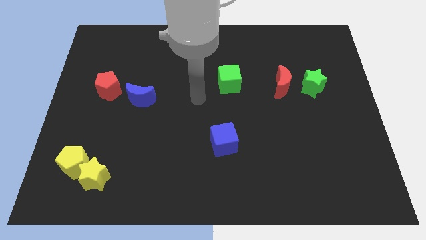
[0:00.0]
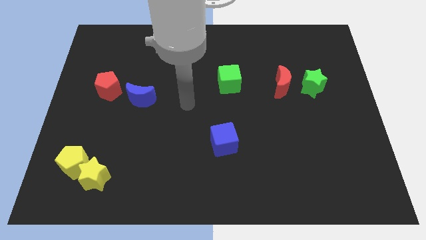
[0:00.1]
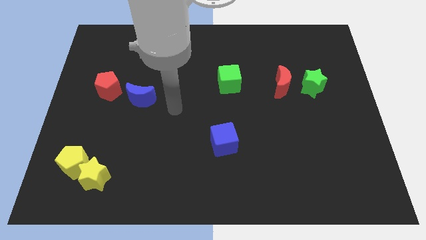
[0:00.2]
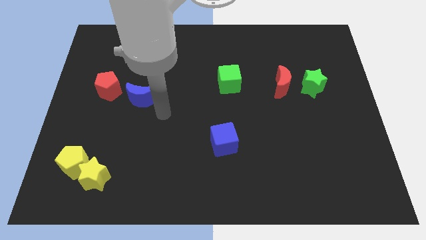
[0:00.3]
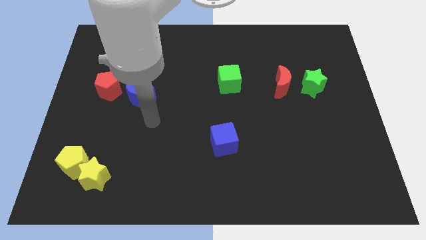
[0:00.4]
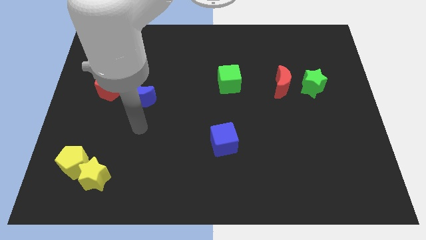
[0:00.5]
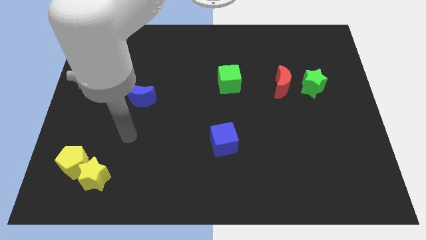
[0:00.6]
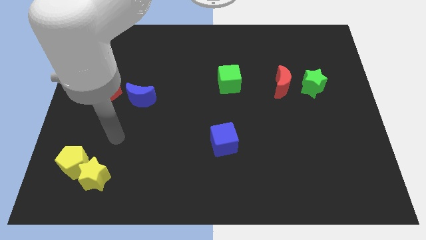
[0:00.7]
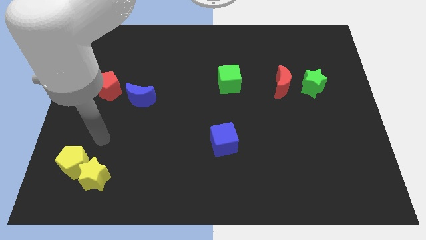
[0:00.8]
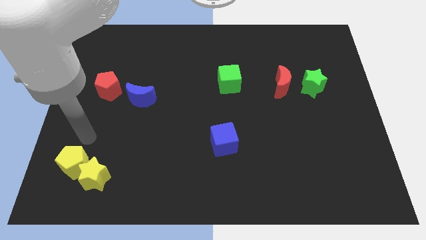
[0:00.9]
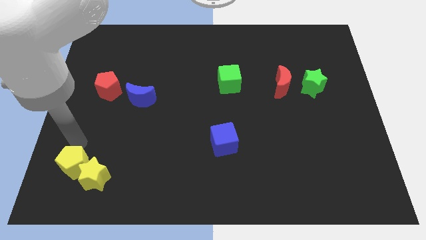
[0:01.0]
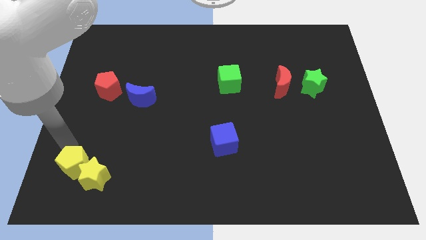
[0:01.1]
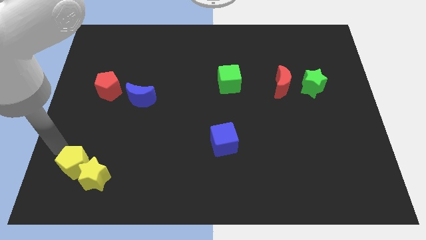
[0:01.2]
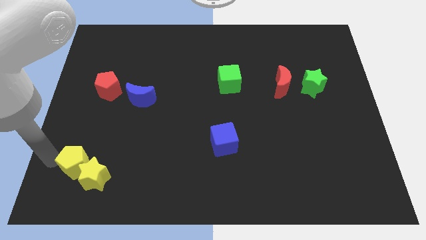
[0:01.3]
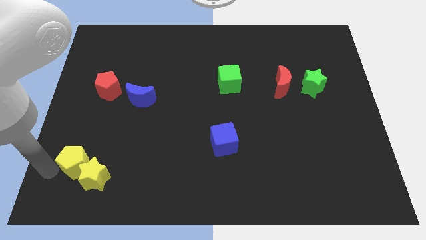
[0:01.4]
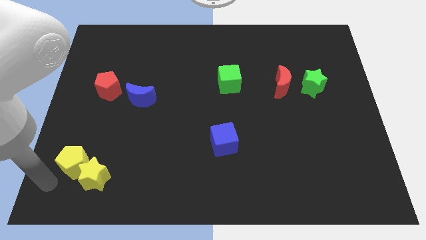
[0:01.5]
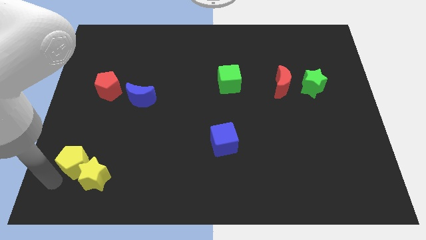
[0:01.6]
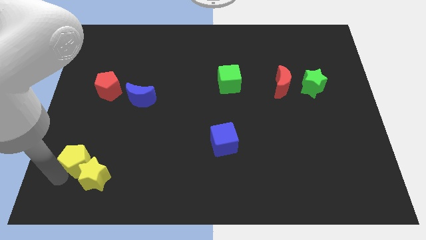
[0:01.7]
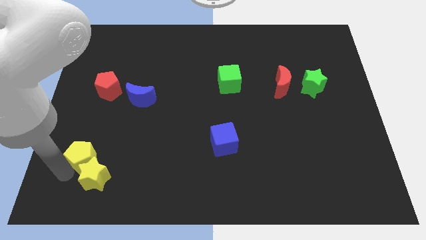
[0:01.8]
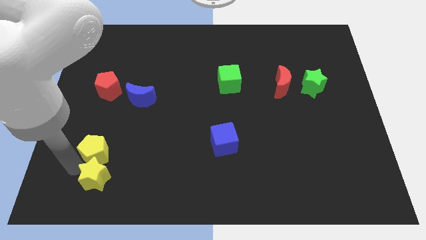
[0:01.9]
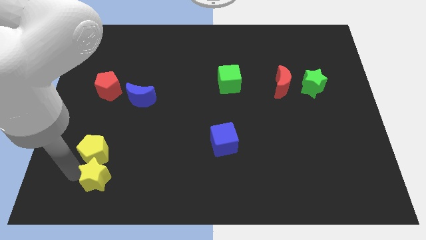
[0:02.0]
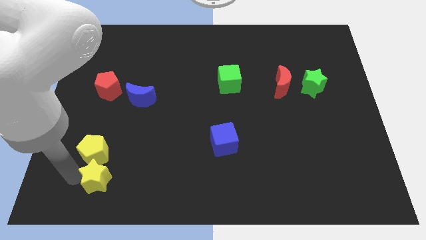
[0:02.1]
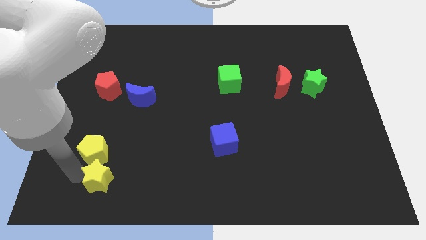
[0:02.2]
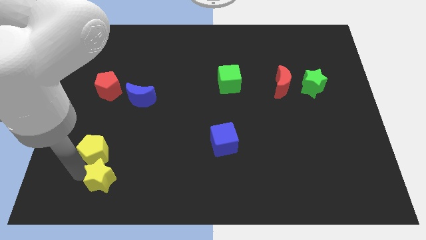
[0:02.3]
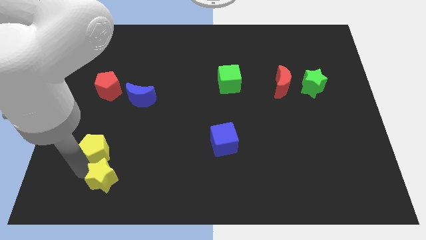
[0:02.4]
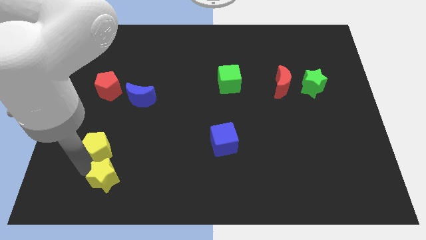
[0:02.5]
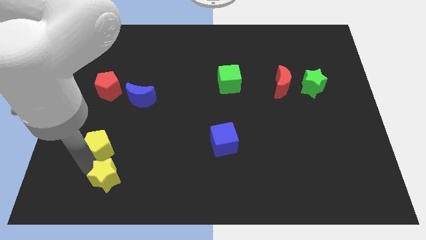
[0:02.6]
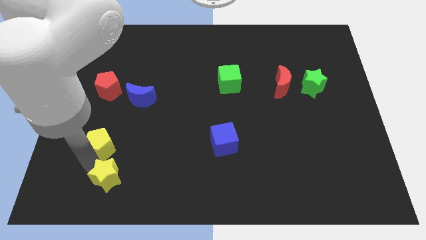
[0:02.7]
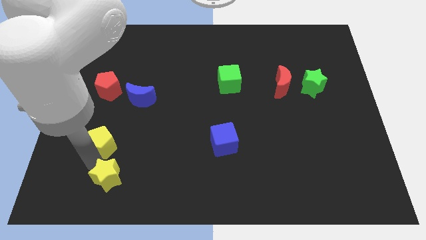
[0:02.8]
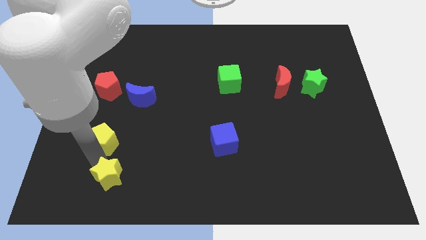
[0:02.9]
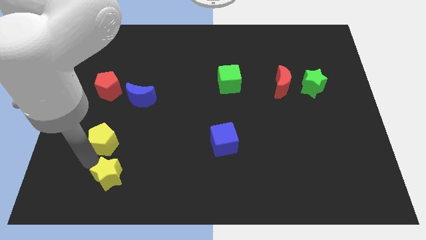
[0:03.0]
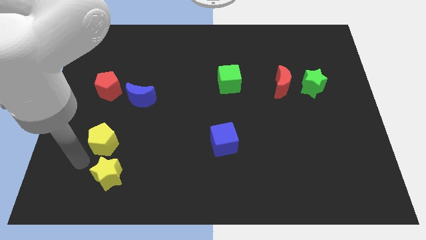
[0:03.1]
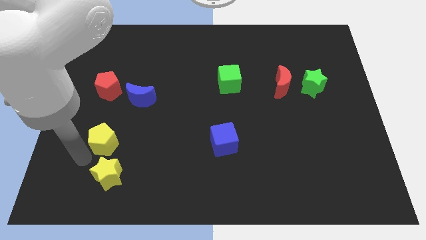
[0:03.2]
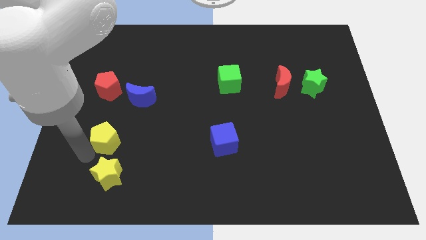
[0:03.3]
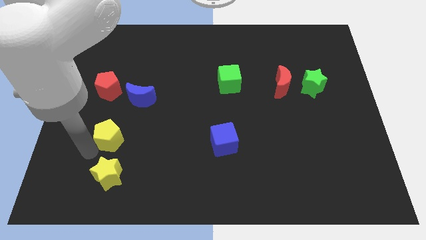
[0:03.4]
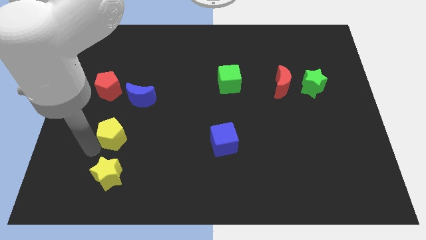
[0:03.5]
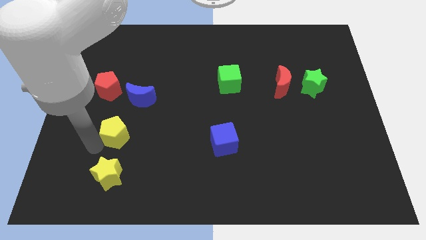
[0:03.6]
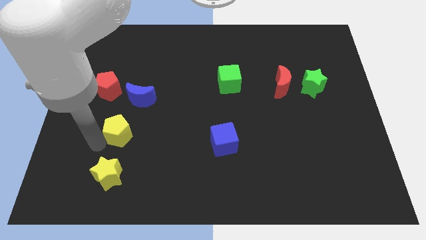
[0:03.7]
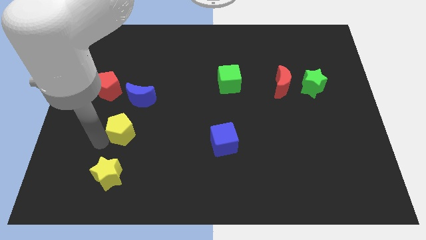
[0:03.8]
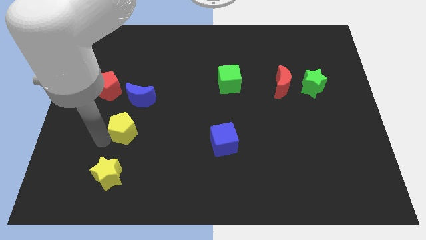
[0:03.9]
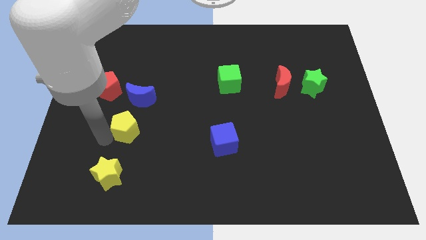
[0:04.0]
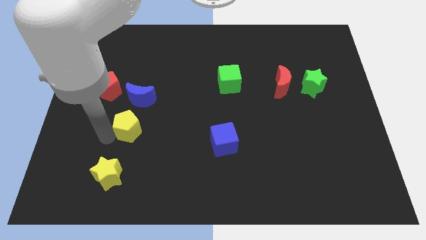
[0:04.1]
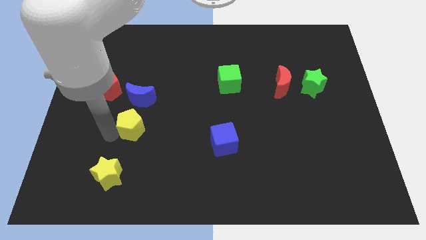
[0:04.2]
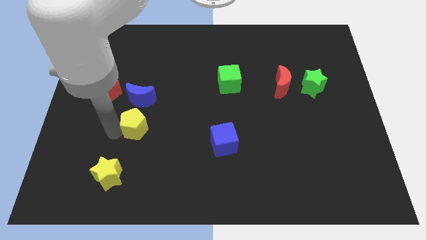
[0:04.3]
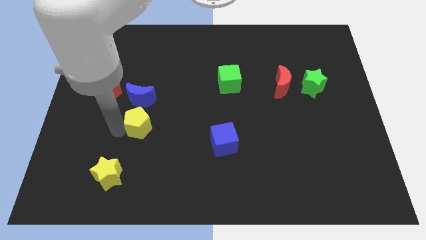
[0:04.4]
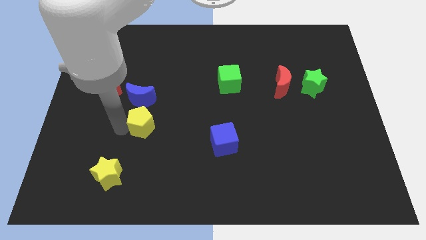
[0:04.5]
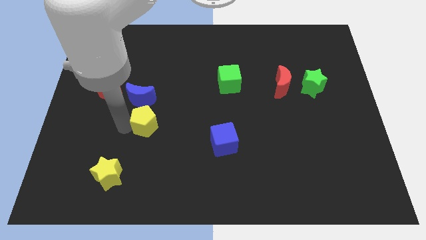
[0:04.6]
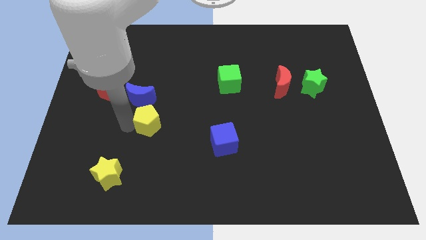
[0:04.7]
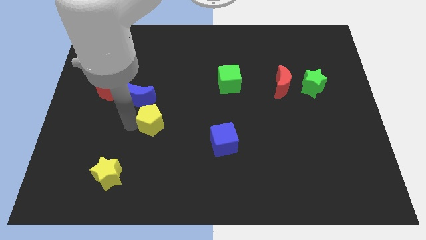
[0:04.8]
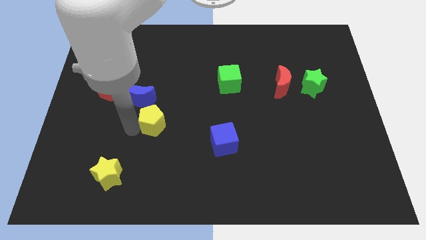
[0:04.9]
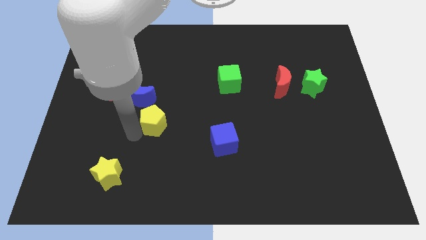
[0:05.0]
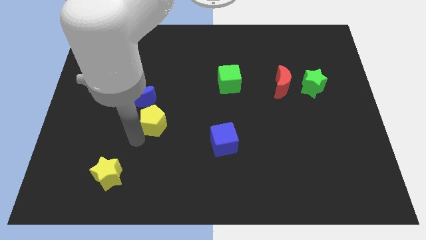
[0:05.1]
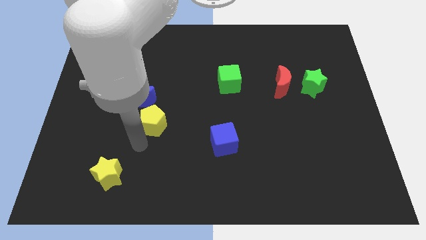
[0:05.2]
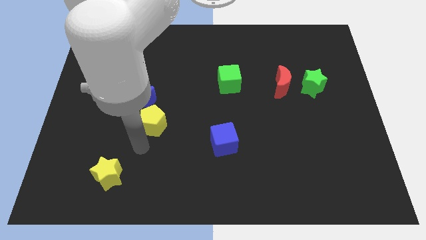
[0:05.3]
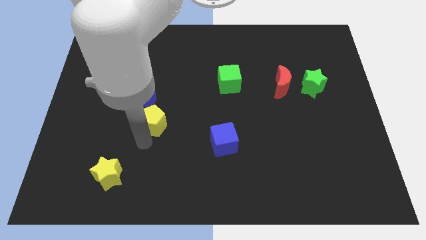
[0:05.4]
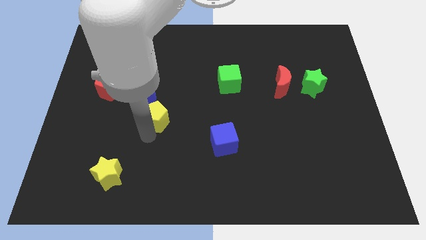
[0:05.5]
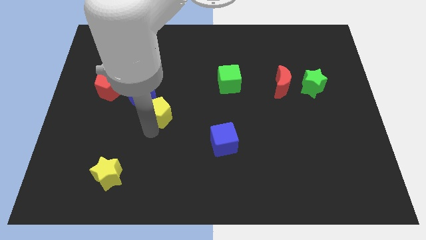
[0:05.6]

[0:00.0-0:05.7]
slide the yellow pentagon upwards and then right

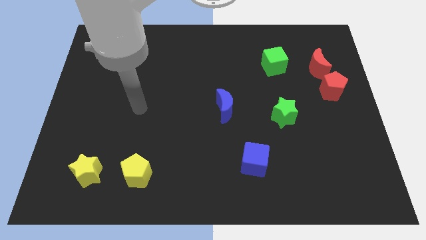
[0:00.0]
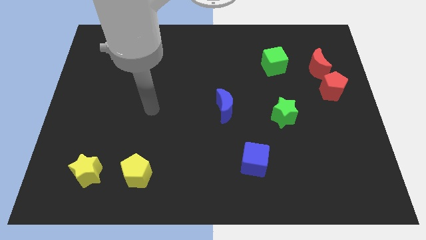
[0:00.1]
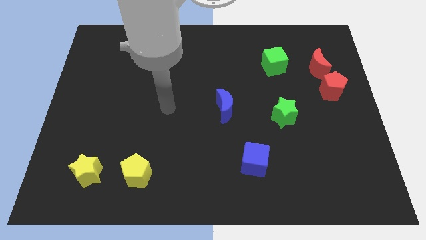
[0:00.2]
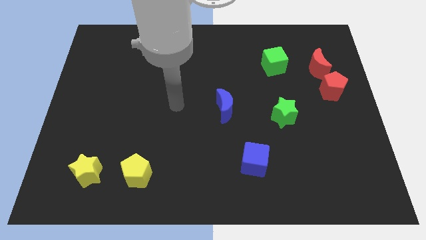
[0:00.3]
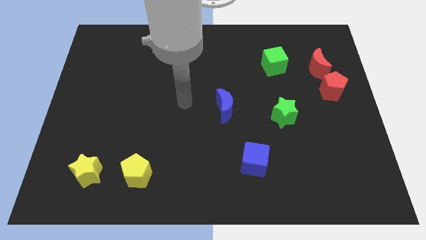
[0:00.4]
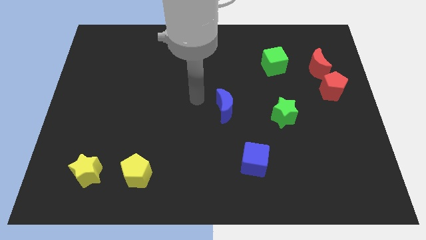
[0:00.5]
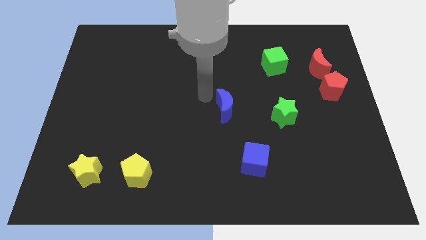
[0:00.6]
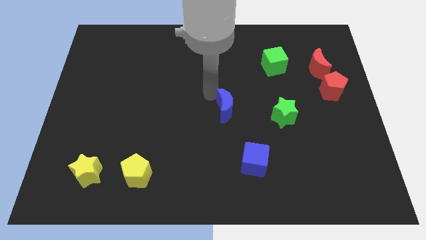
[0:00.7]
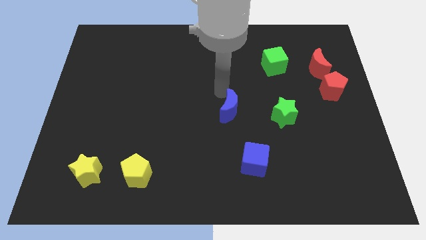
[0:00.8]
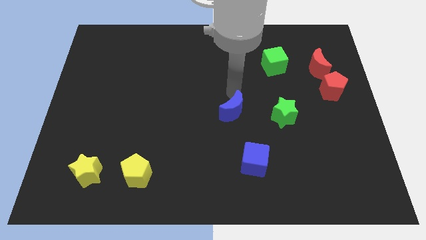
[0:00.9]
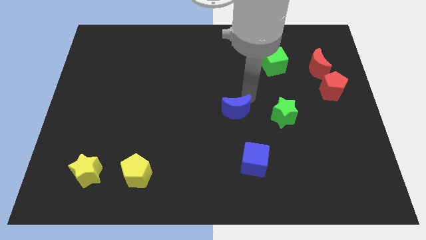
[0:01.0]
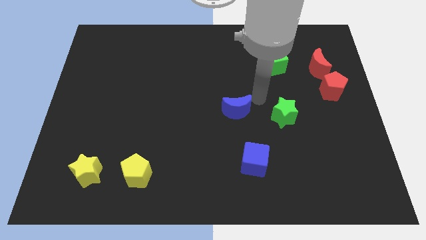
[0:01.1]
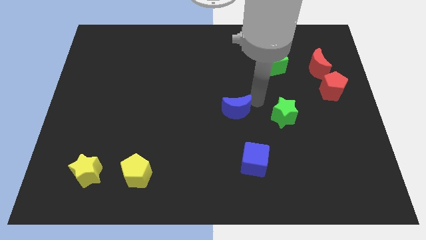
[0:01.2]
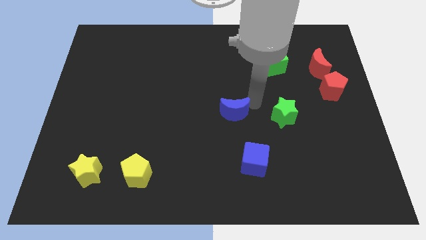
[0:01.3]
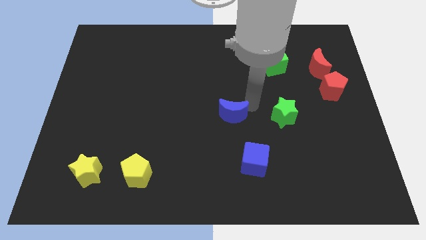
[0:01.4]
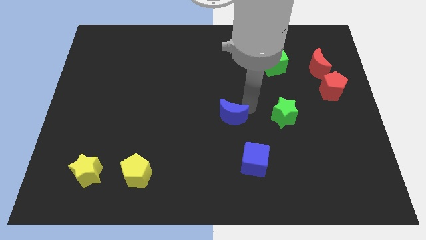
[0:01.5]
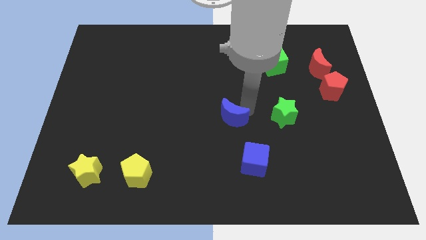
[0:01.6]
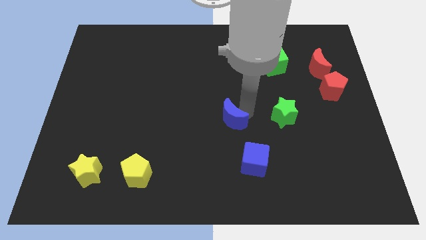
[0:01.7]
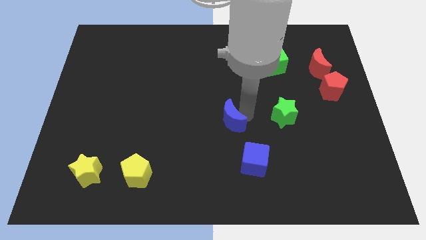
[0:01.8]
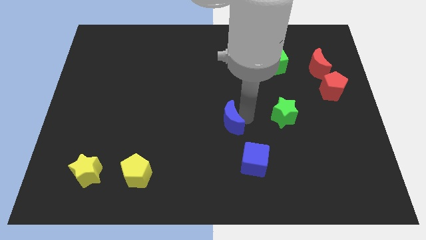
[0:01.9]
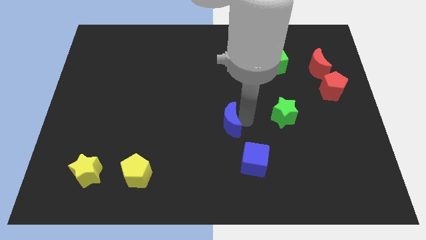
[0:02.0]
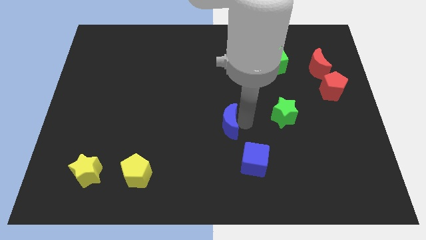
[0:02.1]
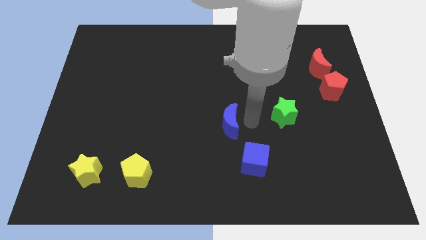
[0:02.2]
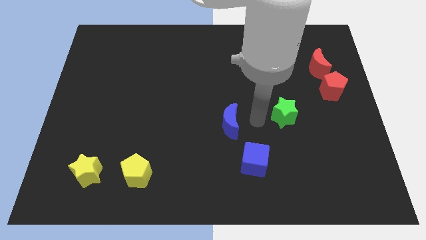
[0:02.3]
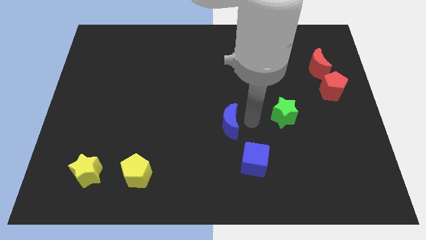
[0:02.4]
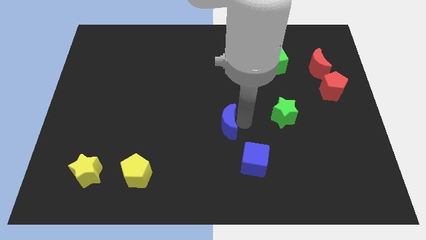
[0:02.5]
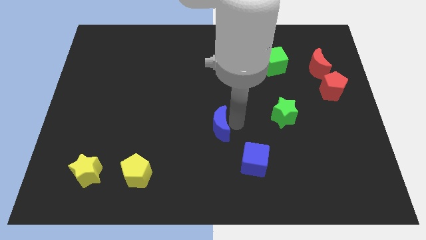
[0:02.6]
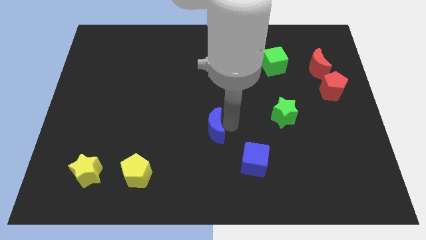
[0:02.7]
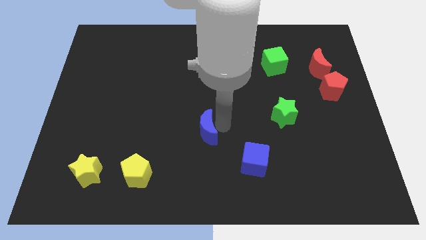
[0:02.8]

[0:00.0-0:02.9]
slide the blue moon downwards and left diagonally a little bit
